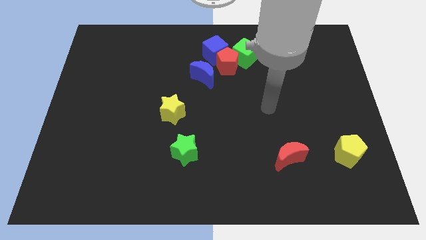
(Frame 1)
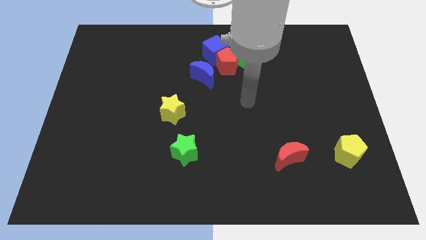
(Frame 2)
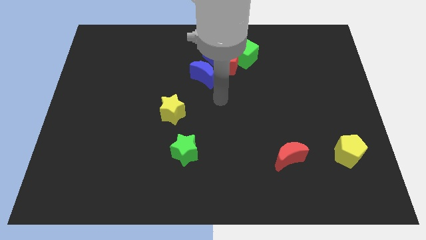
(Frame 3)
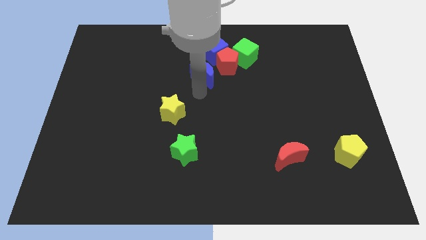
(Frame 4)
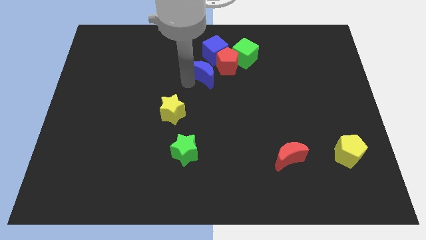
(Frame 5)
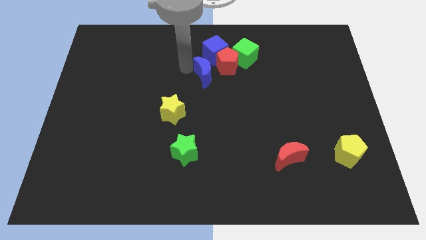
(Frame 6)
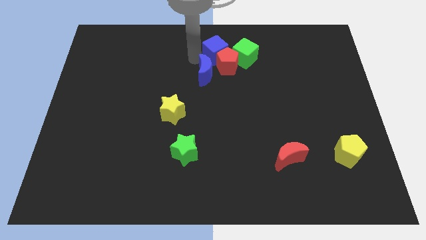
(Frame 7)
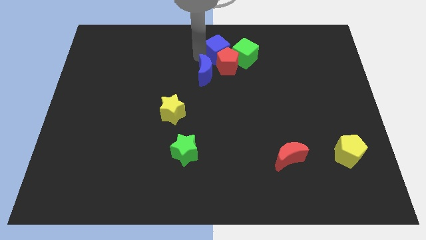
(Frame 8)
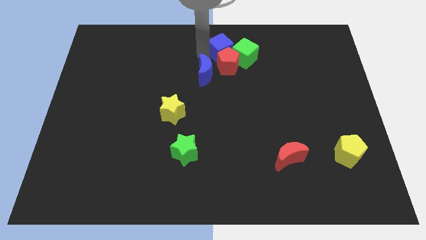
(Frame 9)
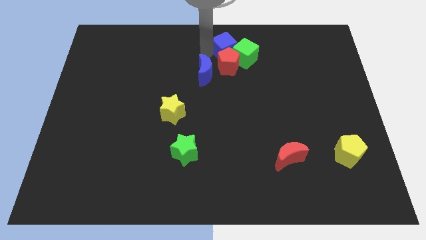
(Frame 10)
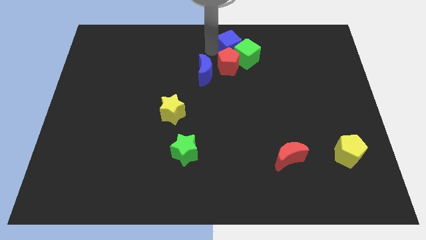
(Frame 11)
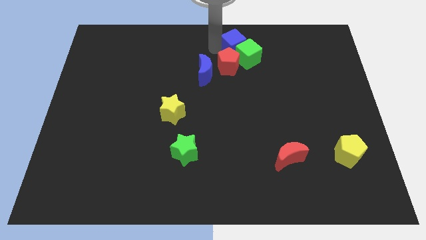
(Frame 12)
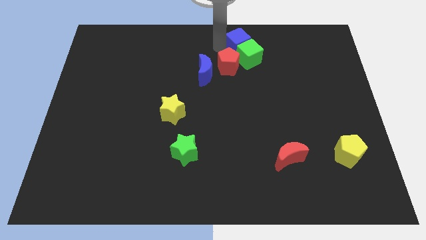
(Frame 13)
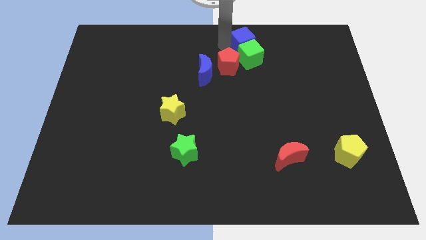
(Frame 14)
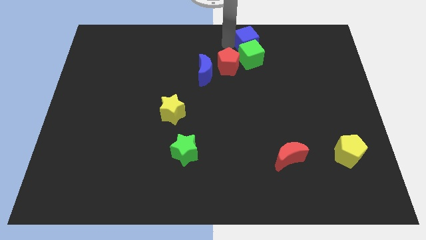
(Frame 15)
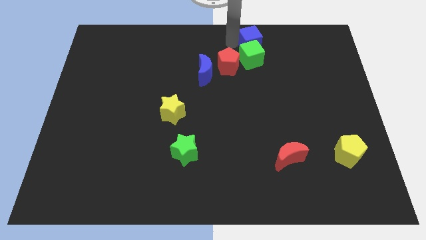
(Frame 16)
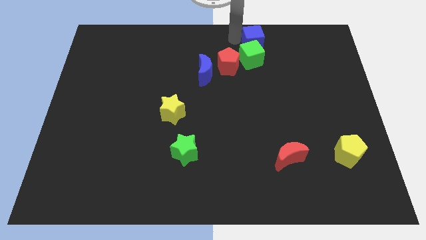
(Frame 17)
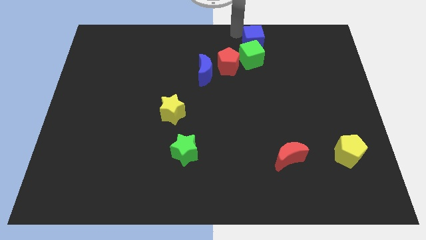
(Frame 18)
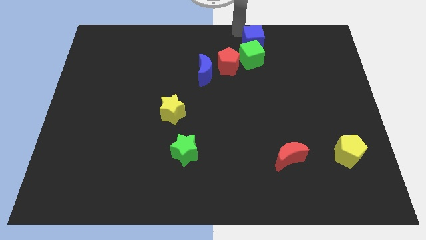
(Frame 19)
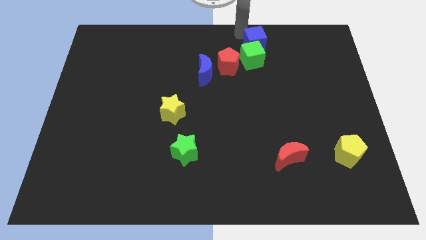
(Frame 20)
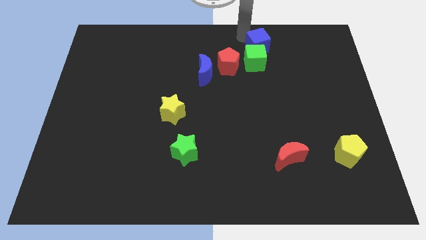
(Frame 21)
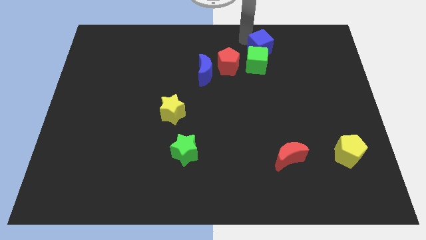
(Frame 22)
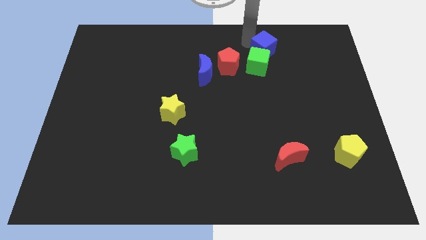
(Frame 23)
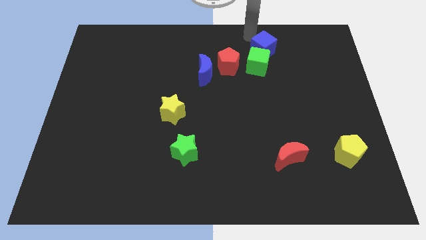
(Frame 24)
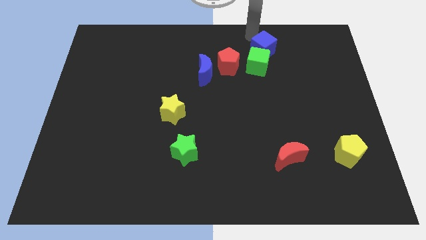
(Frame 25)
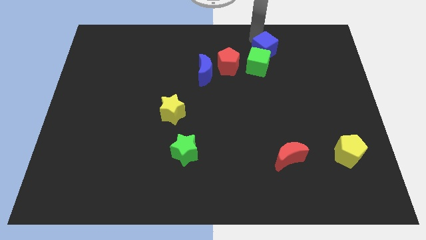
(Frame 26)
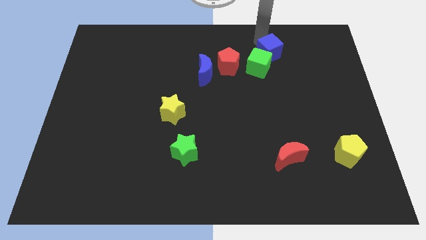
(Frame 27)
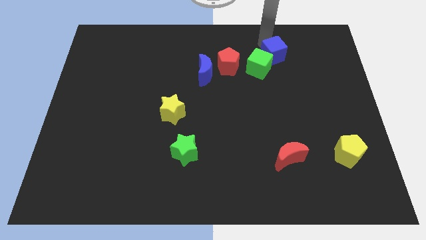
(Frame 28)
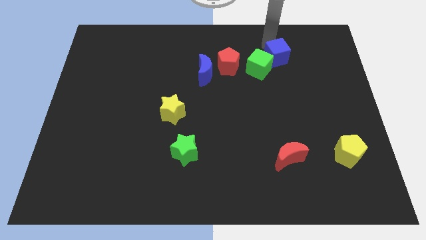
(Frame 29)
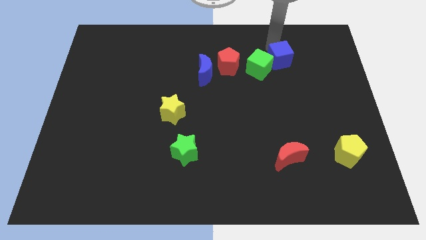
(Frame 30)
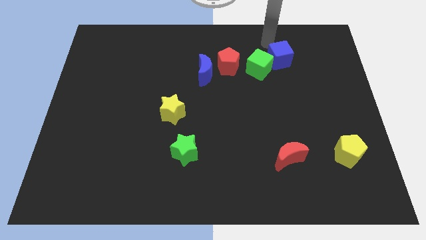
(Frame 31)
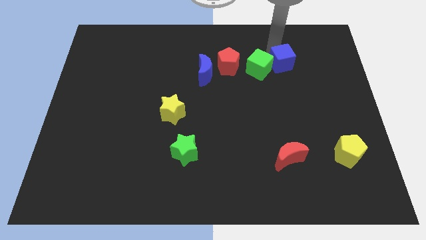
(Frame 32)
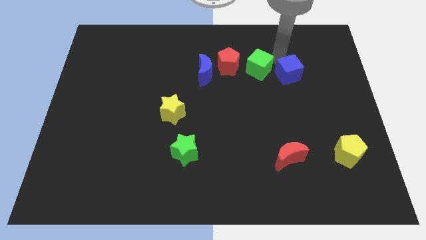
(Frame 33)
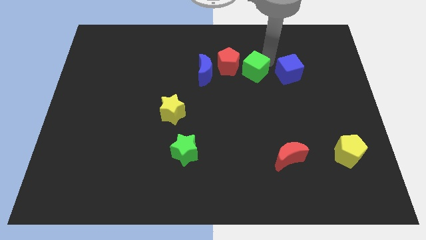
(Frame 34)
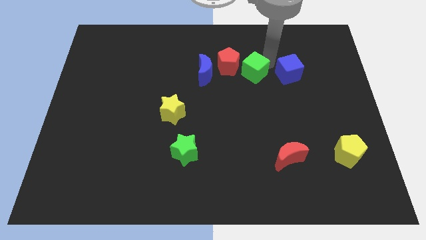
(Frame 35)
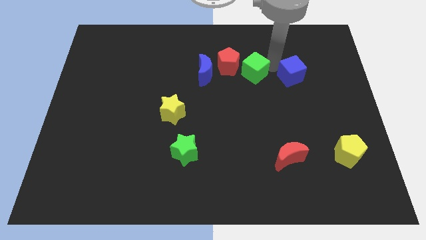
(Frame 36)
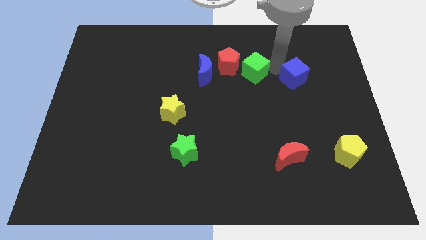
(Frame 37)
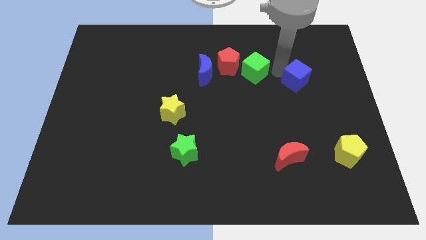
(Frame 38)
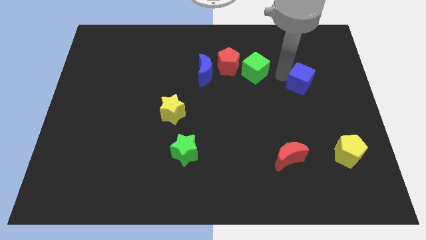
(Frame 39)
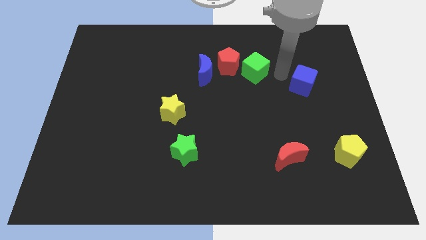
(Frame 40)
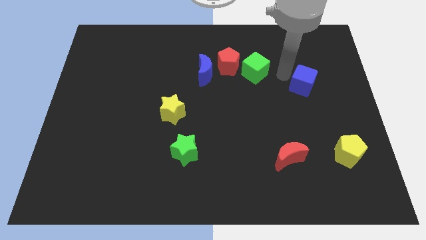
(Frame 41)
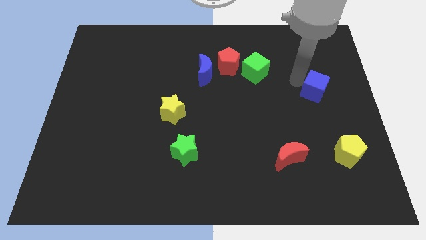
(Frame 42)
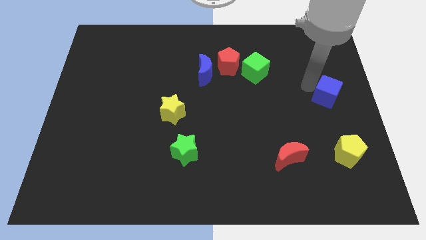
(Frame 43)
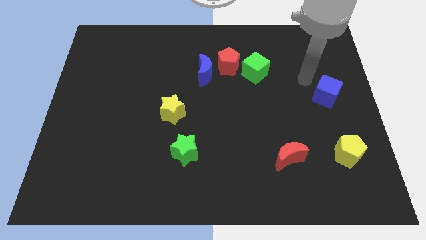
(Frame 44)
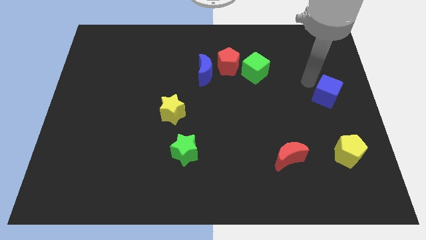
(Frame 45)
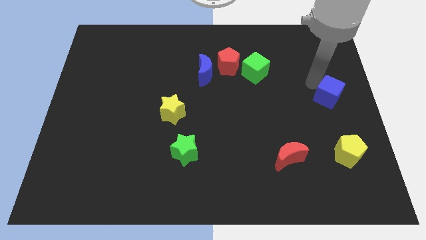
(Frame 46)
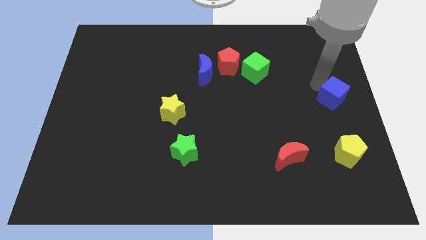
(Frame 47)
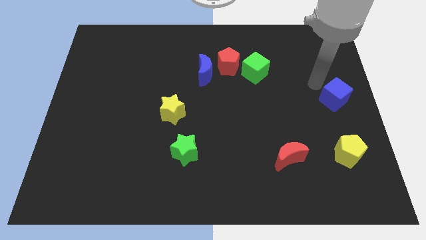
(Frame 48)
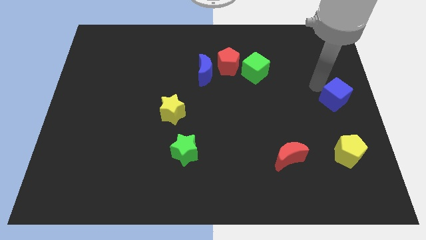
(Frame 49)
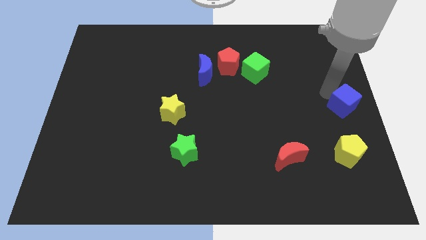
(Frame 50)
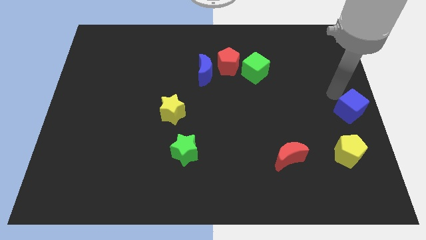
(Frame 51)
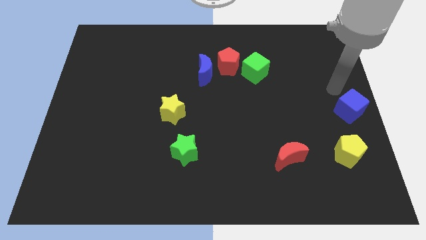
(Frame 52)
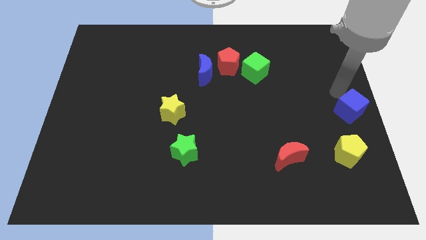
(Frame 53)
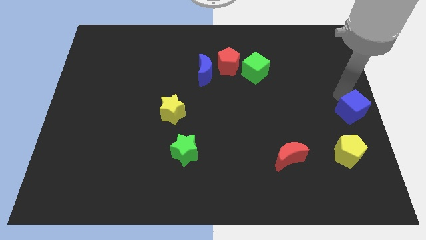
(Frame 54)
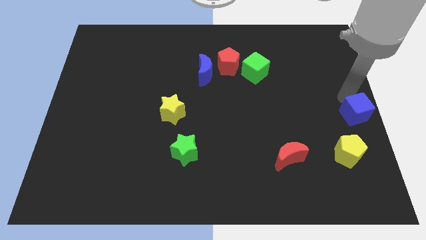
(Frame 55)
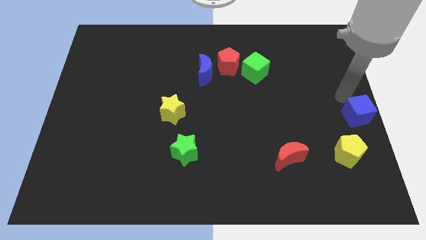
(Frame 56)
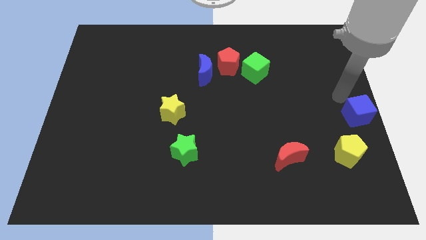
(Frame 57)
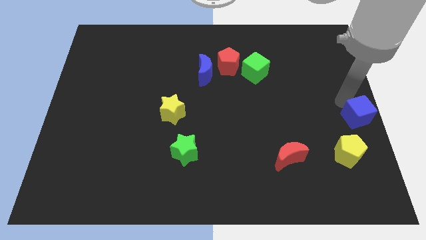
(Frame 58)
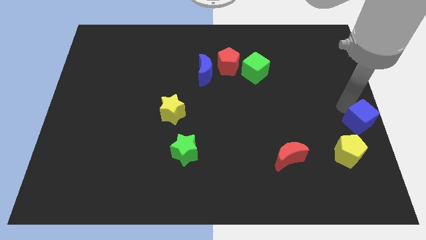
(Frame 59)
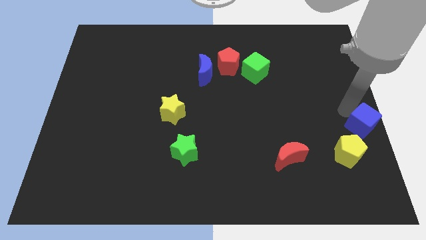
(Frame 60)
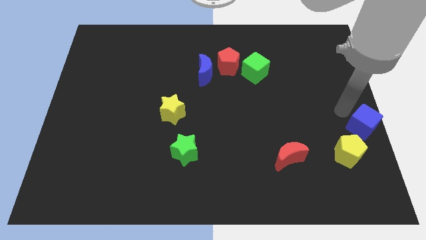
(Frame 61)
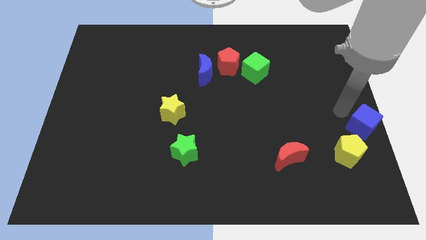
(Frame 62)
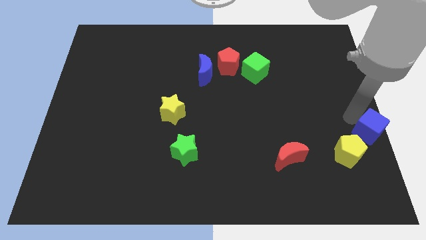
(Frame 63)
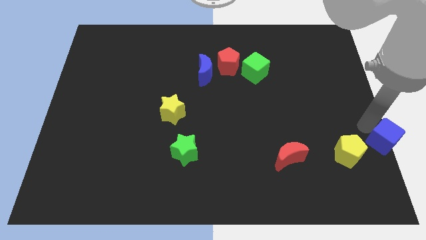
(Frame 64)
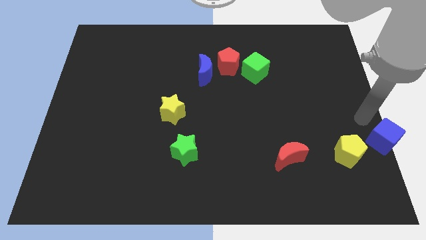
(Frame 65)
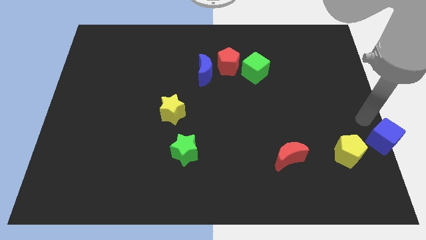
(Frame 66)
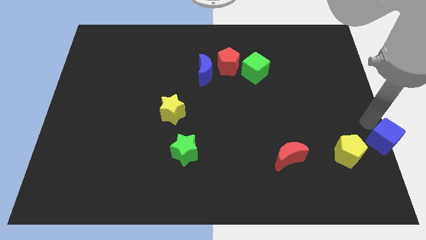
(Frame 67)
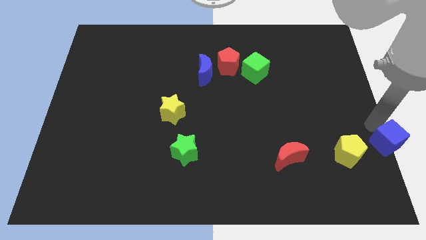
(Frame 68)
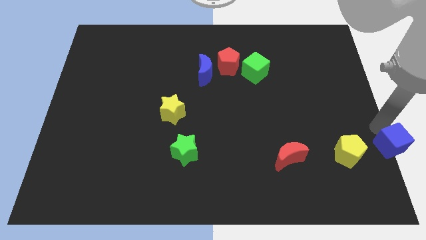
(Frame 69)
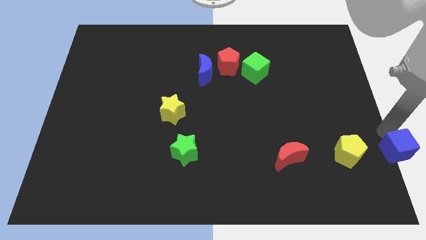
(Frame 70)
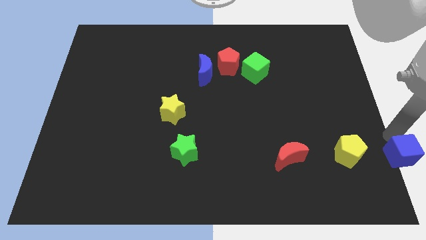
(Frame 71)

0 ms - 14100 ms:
push the blue cube to the bottom right corner

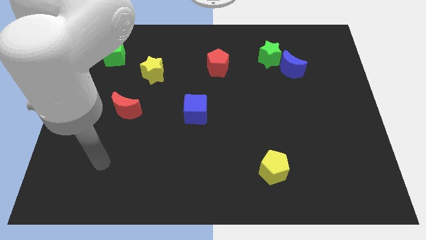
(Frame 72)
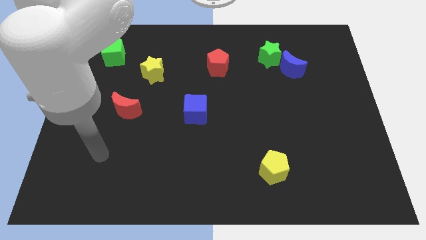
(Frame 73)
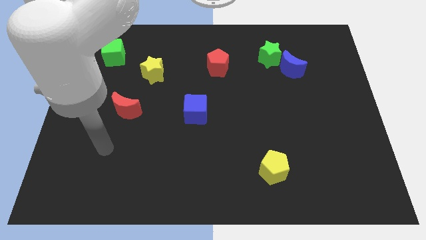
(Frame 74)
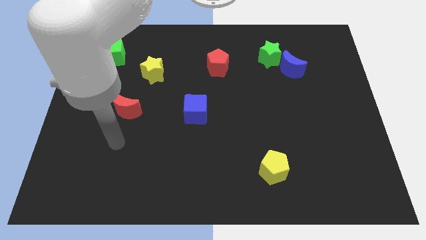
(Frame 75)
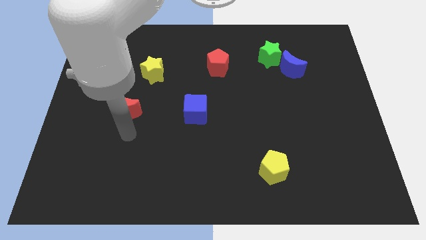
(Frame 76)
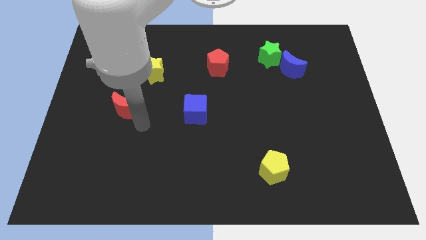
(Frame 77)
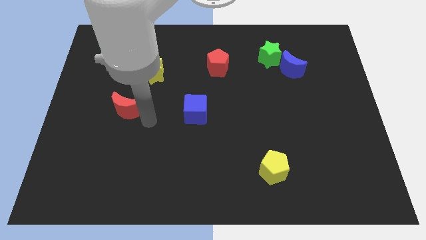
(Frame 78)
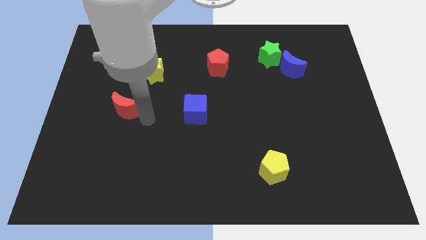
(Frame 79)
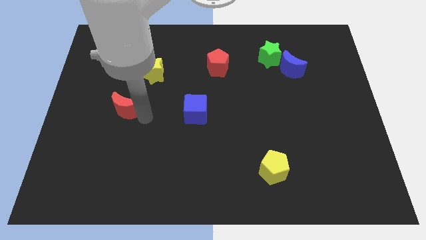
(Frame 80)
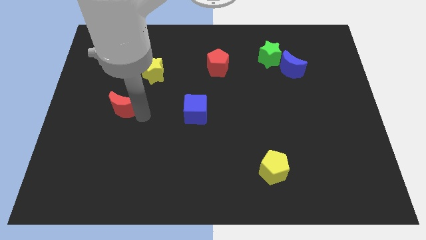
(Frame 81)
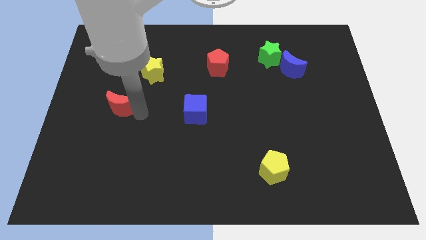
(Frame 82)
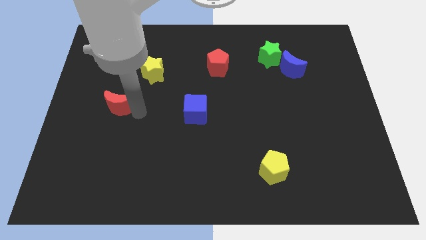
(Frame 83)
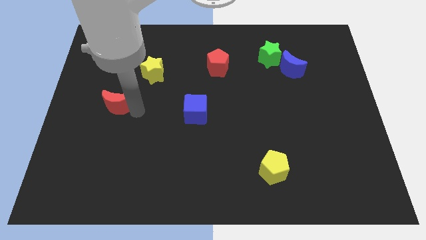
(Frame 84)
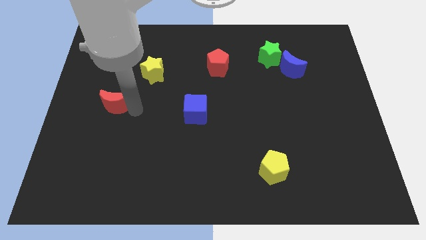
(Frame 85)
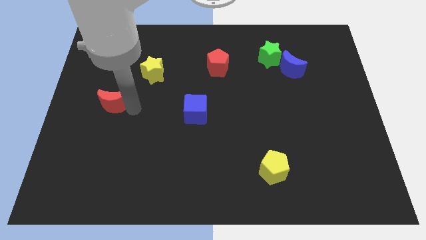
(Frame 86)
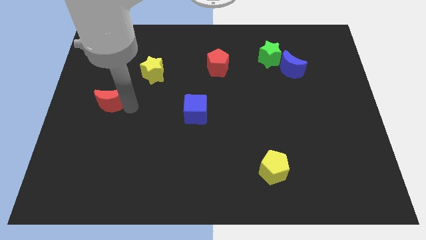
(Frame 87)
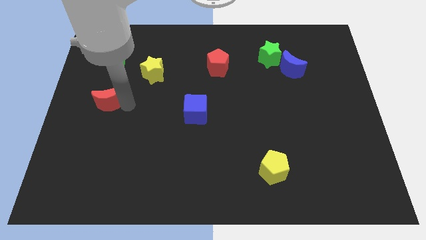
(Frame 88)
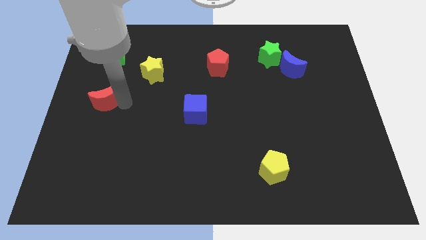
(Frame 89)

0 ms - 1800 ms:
put the red moon to the left side
